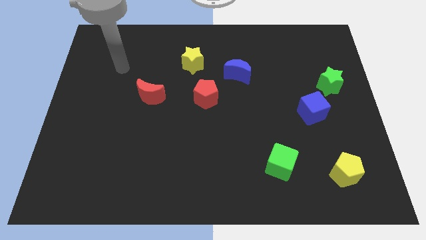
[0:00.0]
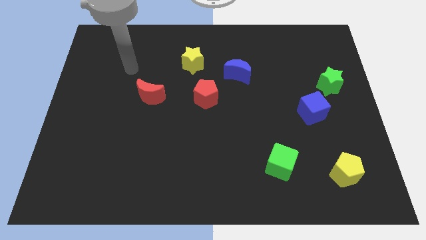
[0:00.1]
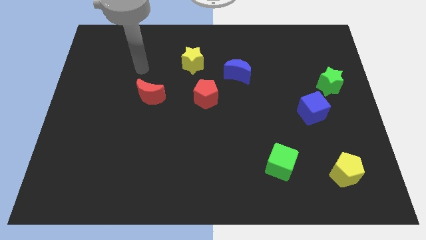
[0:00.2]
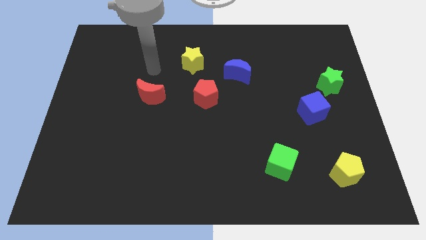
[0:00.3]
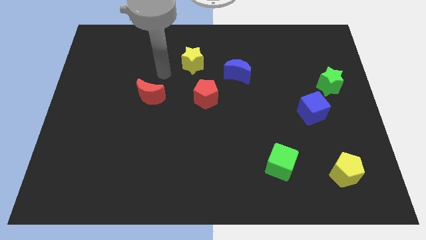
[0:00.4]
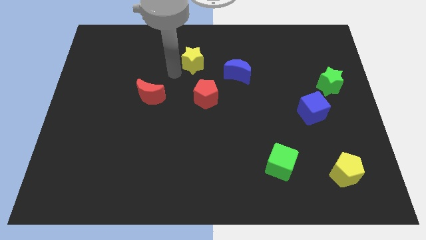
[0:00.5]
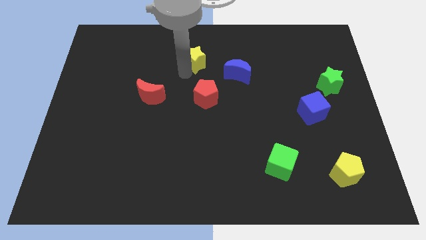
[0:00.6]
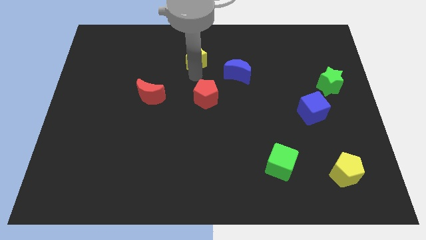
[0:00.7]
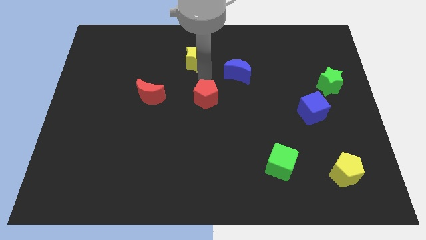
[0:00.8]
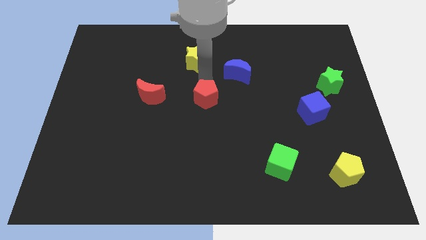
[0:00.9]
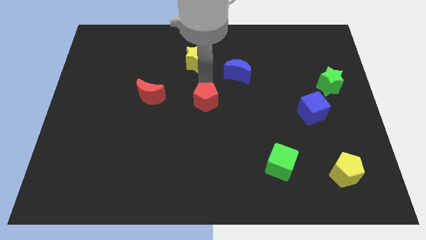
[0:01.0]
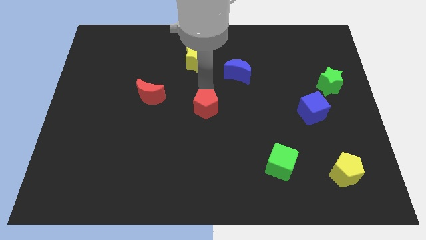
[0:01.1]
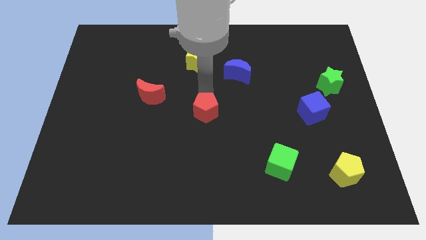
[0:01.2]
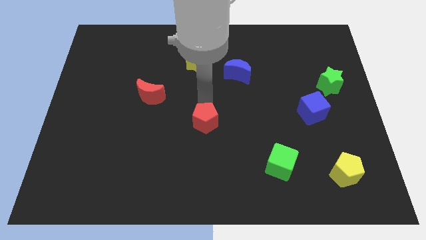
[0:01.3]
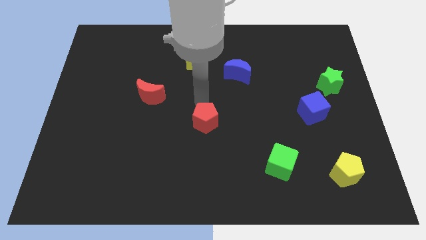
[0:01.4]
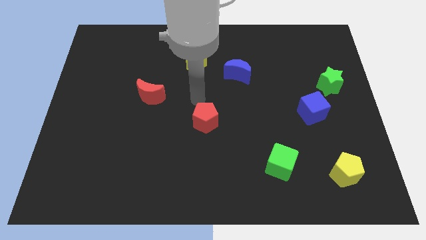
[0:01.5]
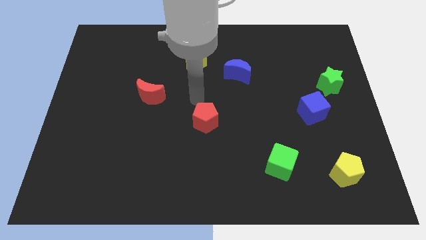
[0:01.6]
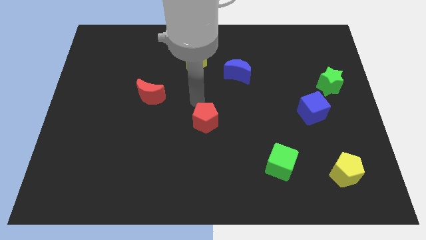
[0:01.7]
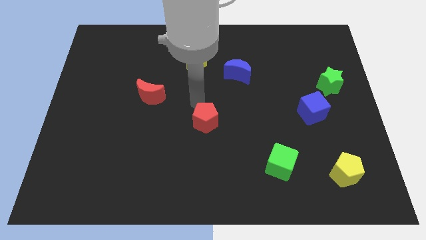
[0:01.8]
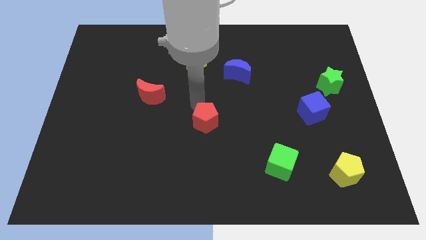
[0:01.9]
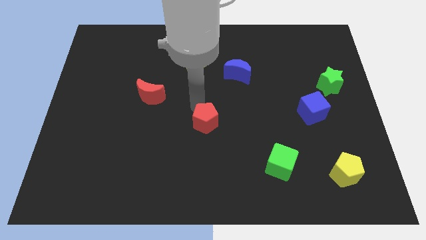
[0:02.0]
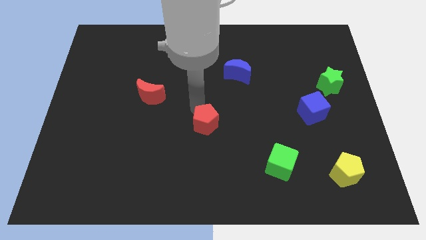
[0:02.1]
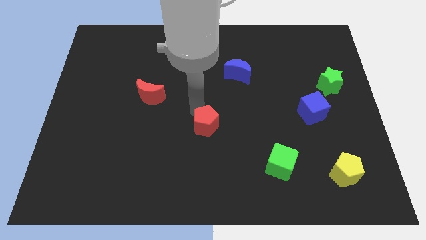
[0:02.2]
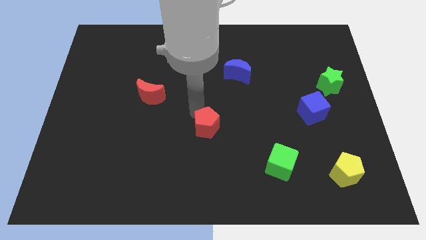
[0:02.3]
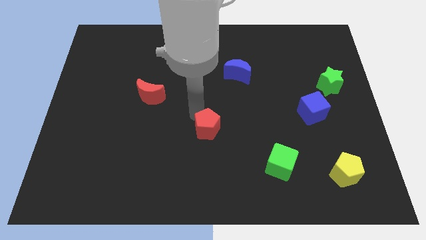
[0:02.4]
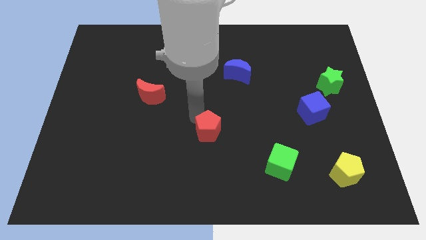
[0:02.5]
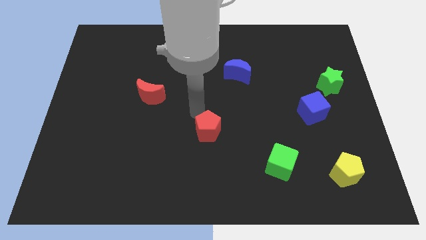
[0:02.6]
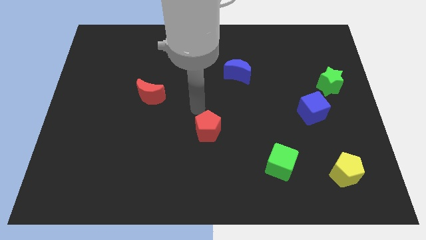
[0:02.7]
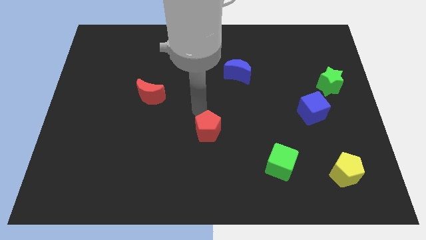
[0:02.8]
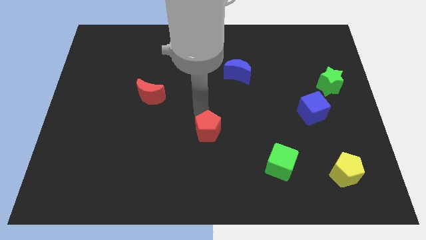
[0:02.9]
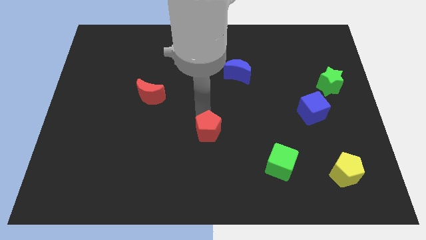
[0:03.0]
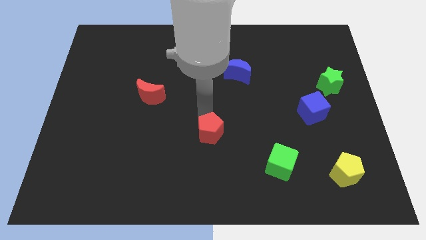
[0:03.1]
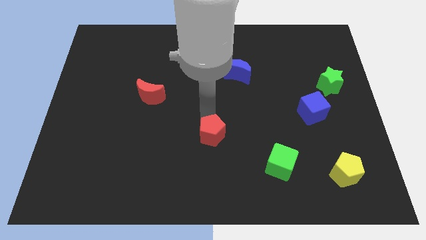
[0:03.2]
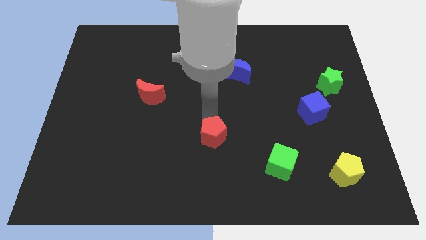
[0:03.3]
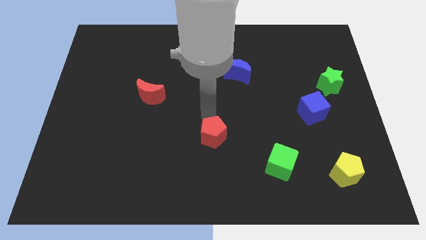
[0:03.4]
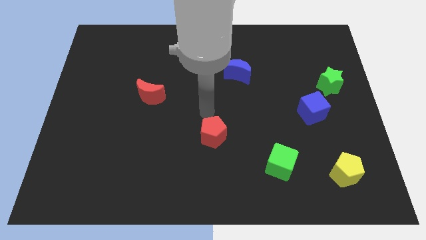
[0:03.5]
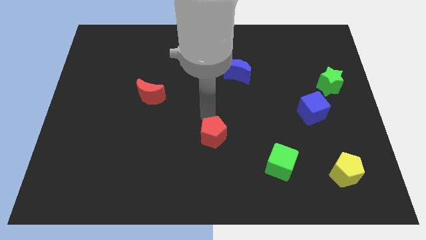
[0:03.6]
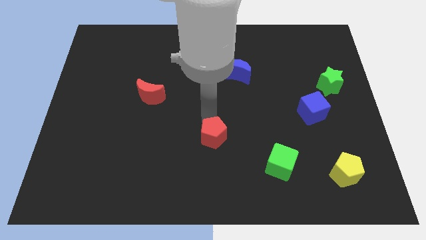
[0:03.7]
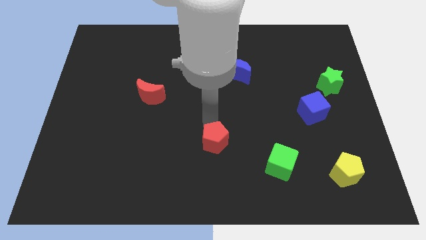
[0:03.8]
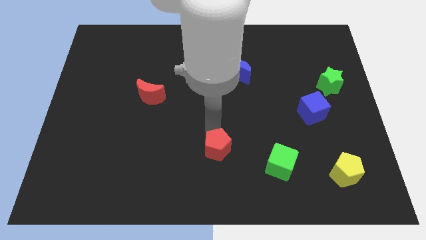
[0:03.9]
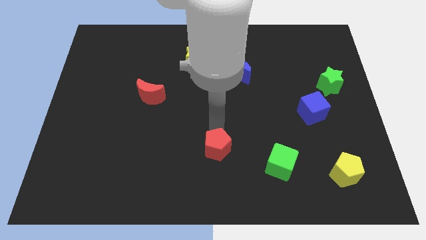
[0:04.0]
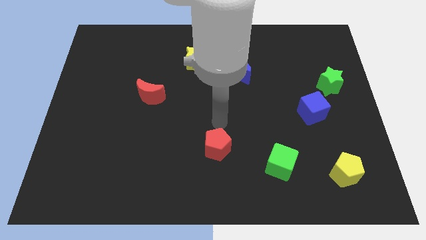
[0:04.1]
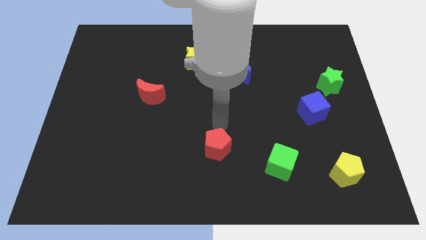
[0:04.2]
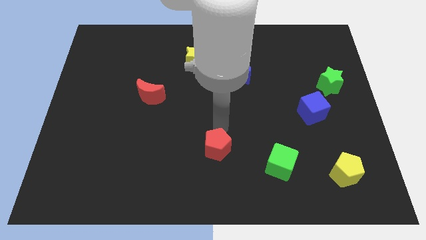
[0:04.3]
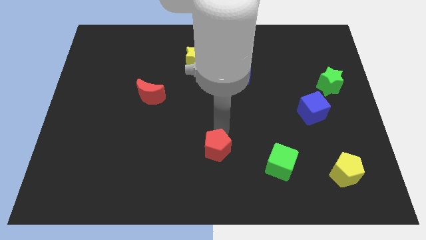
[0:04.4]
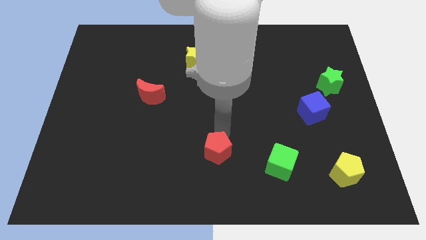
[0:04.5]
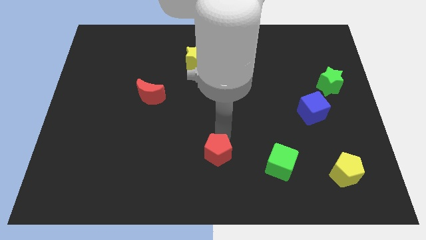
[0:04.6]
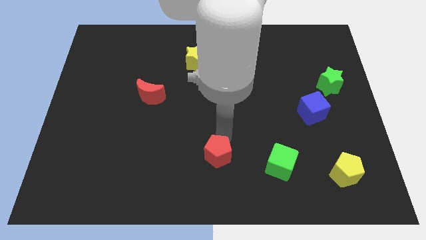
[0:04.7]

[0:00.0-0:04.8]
move the red pentagon to the bottom side

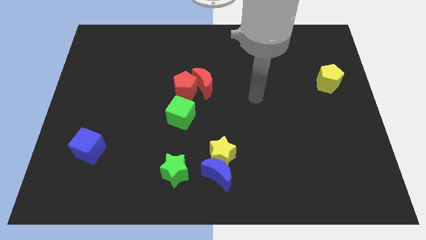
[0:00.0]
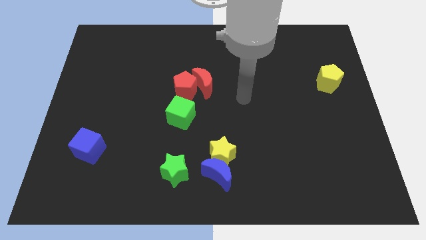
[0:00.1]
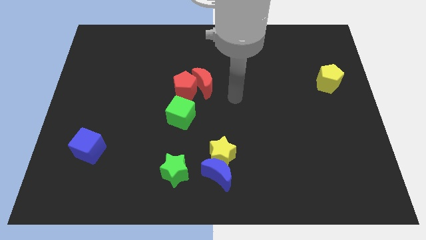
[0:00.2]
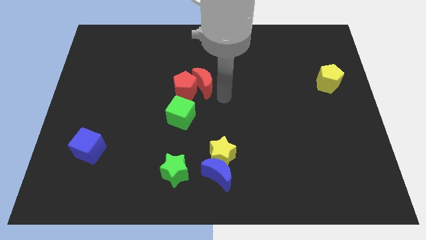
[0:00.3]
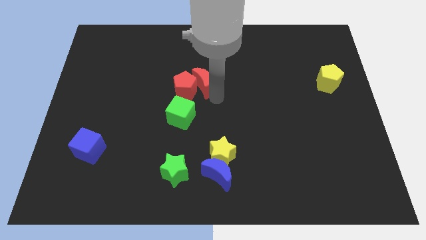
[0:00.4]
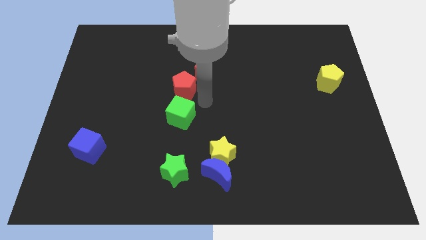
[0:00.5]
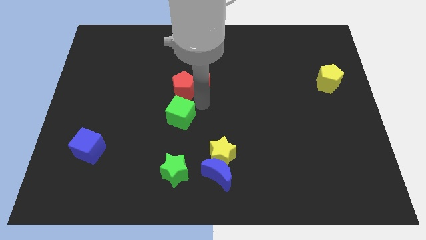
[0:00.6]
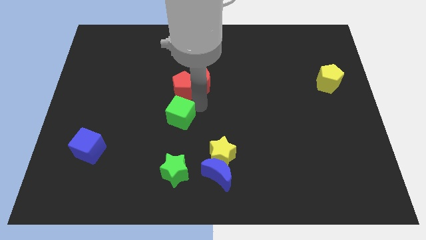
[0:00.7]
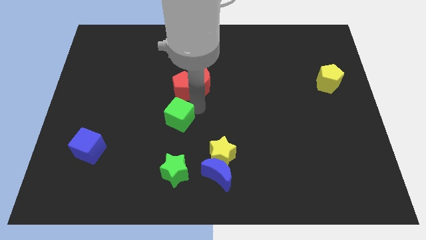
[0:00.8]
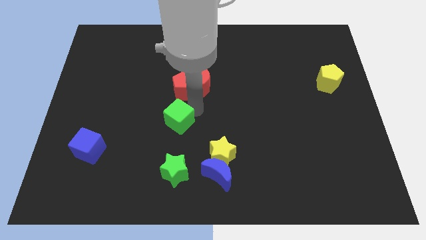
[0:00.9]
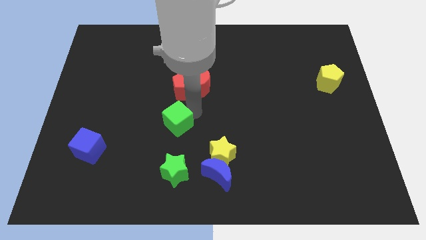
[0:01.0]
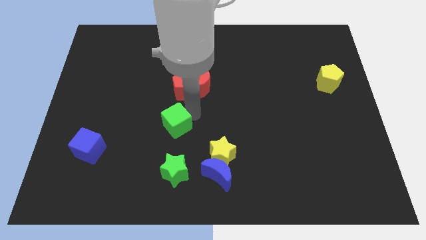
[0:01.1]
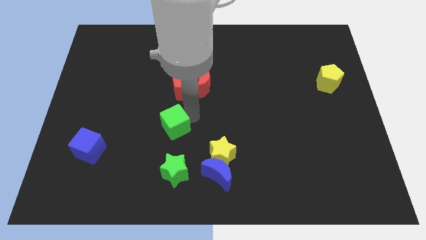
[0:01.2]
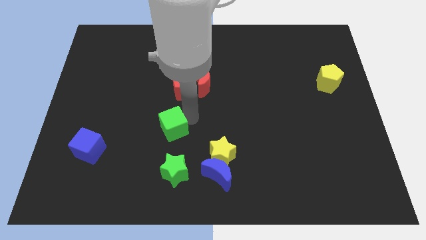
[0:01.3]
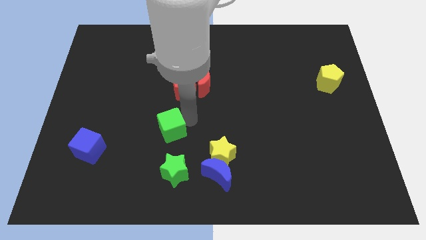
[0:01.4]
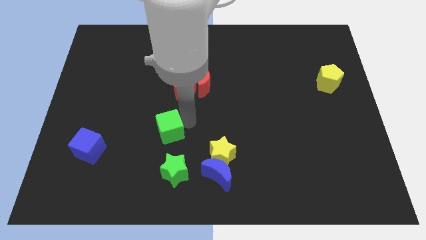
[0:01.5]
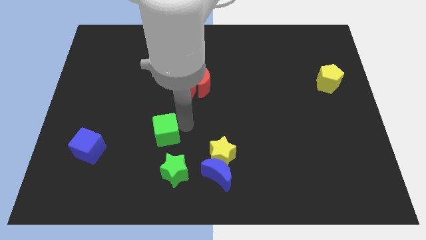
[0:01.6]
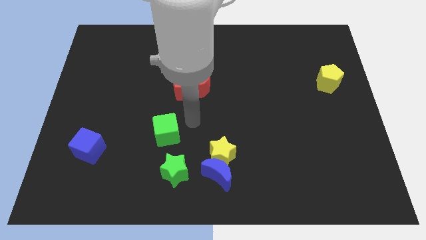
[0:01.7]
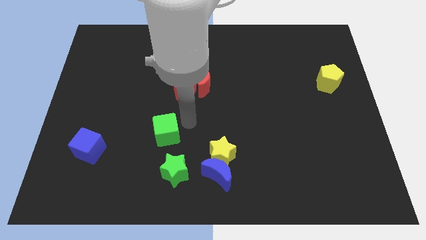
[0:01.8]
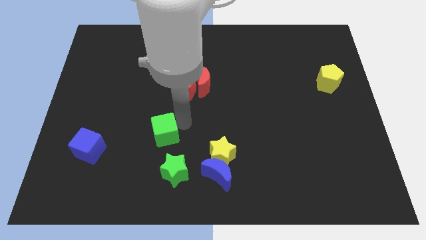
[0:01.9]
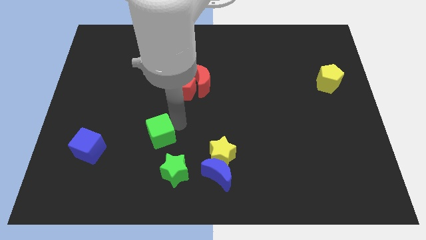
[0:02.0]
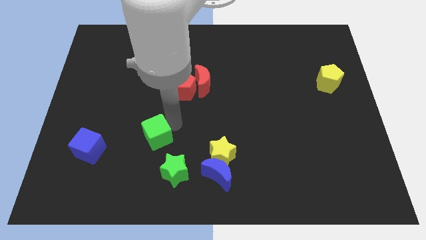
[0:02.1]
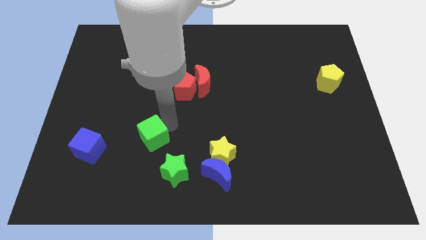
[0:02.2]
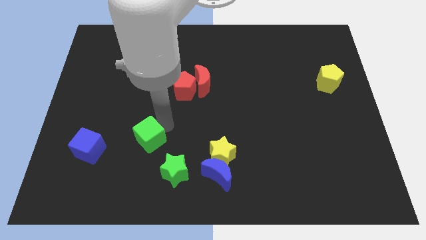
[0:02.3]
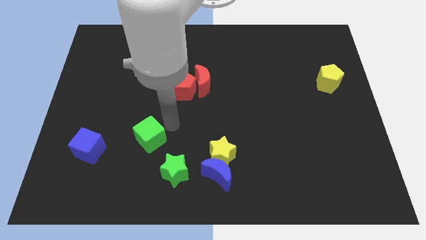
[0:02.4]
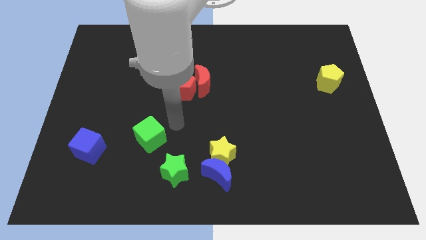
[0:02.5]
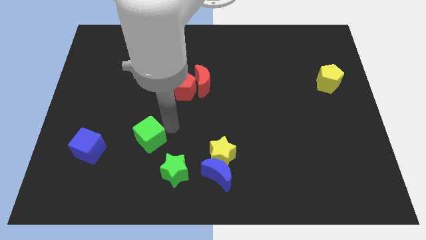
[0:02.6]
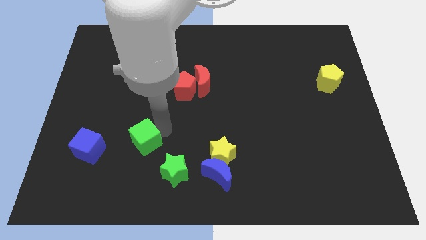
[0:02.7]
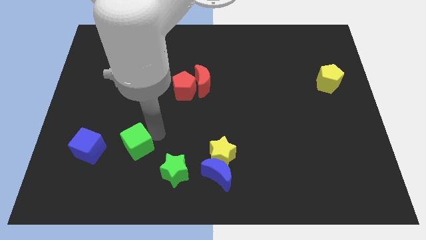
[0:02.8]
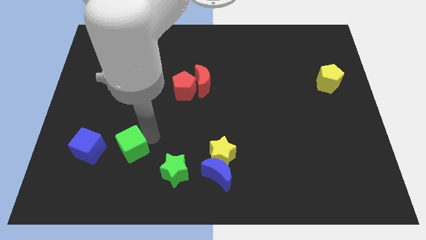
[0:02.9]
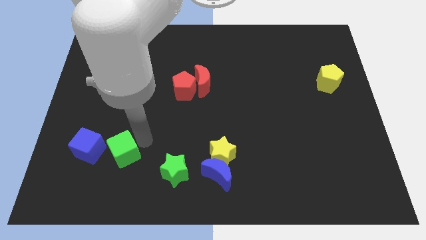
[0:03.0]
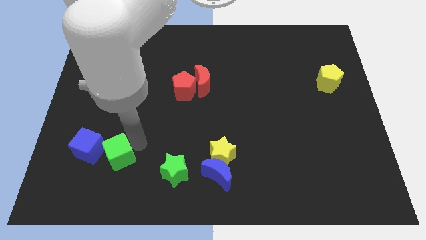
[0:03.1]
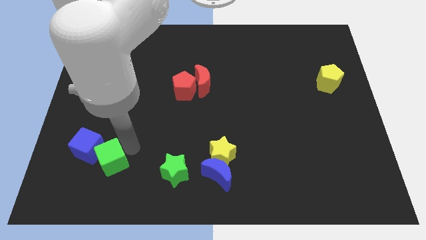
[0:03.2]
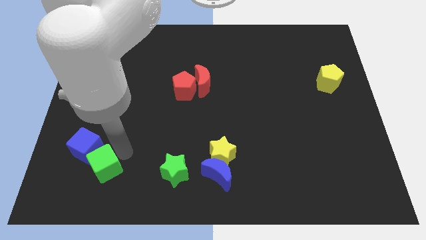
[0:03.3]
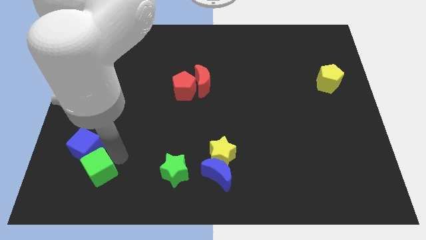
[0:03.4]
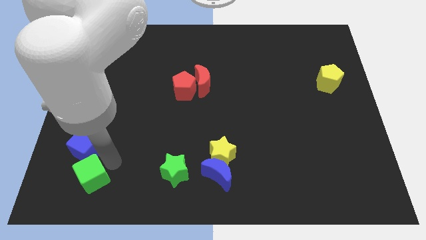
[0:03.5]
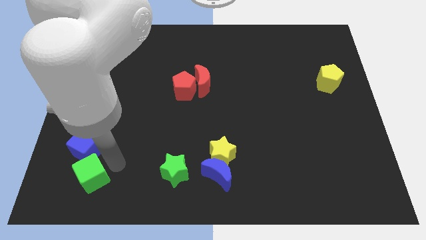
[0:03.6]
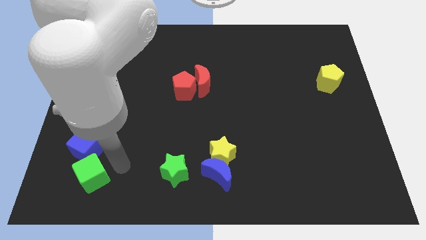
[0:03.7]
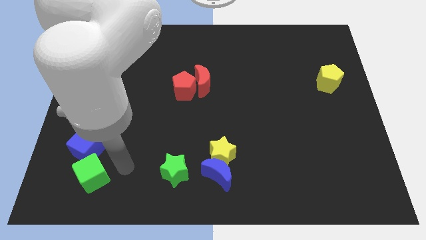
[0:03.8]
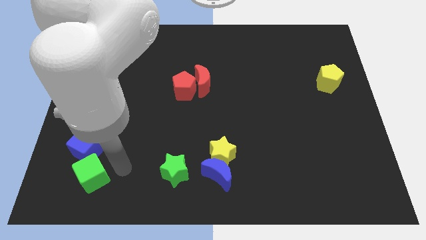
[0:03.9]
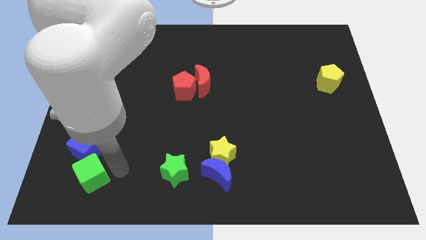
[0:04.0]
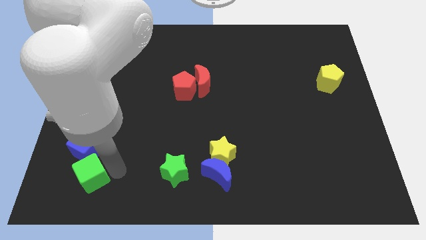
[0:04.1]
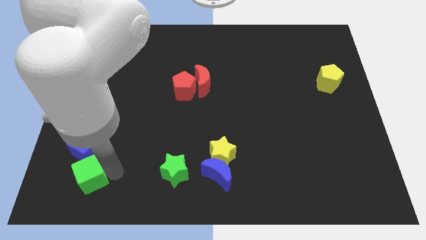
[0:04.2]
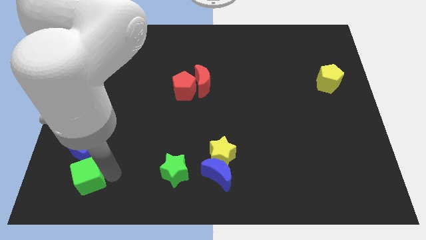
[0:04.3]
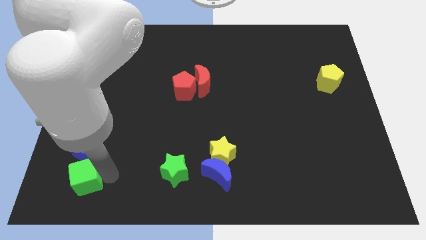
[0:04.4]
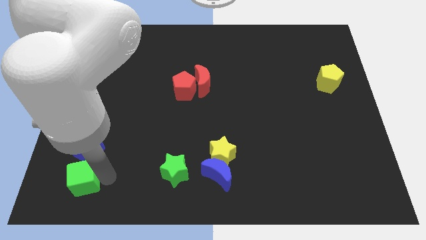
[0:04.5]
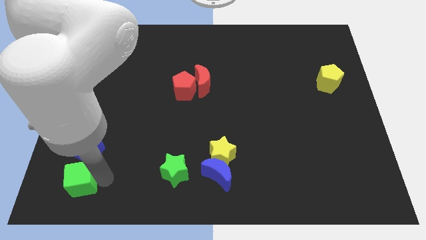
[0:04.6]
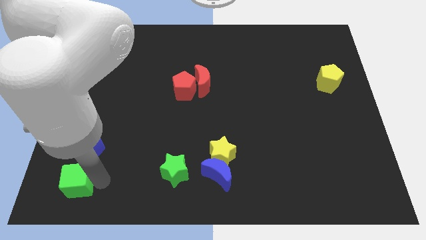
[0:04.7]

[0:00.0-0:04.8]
move the green cube to the bottom left corner
